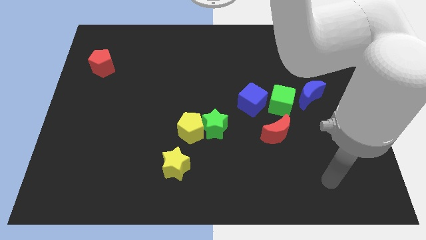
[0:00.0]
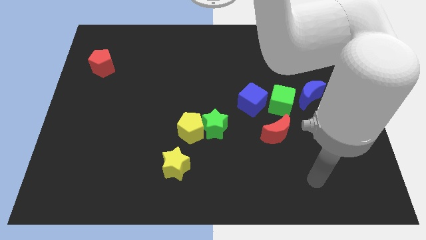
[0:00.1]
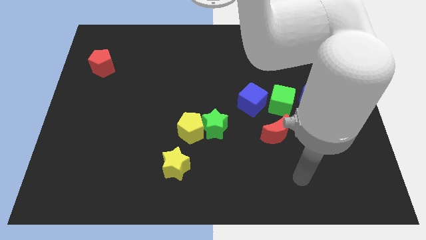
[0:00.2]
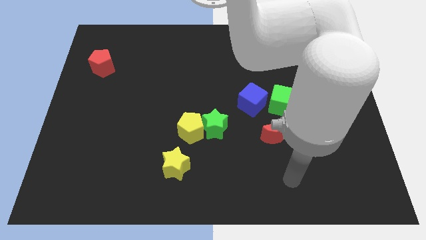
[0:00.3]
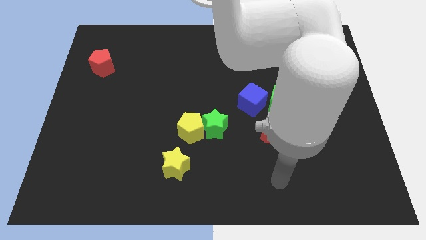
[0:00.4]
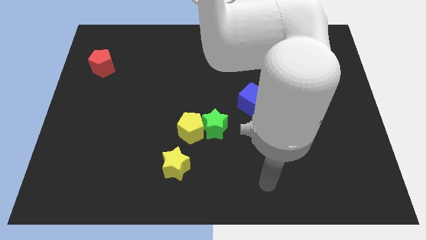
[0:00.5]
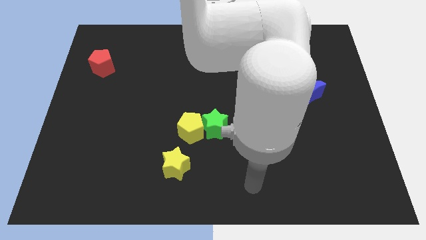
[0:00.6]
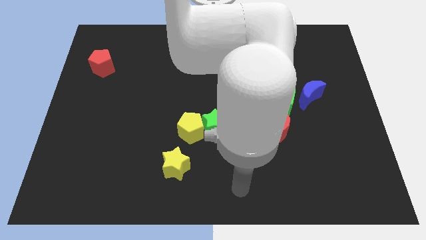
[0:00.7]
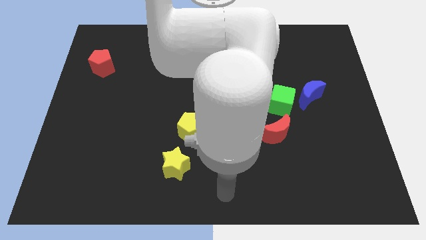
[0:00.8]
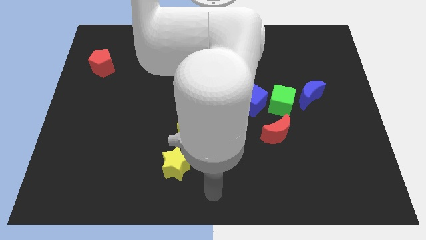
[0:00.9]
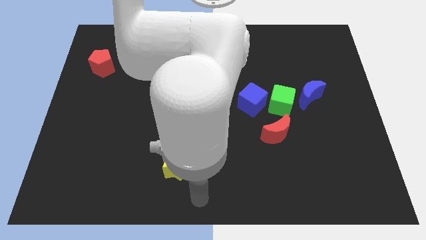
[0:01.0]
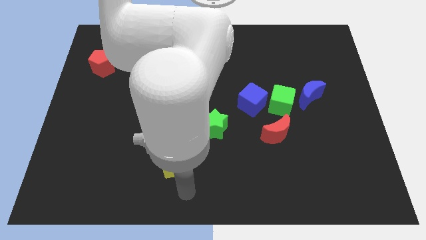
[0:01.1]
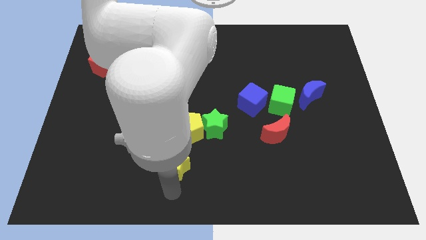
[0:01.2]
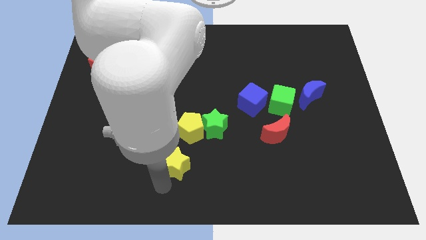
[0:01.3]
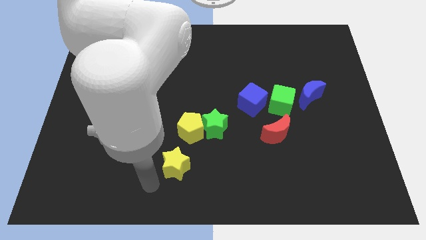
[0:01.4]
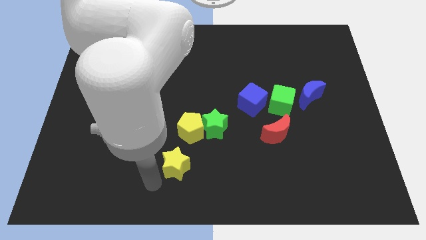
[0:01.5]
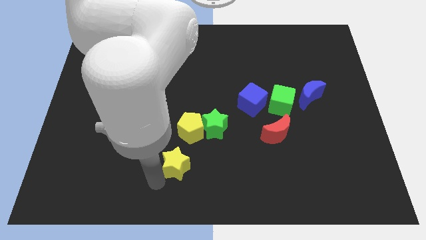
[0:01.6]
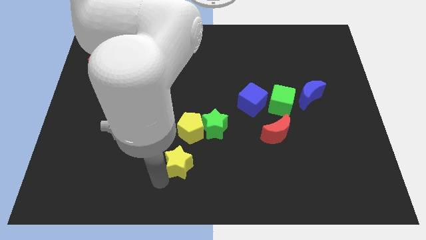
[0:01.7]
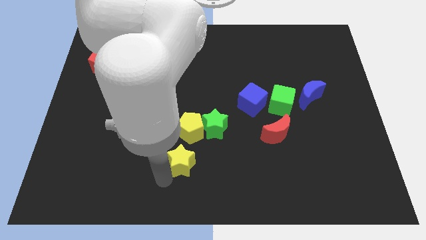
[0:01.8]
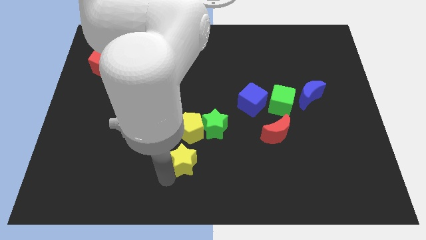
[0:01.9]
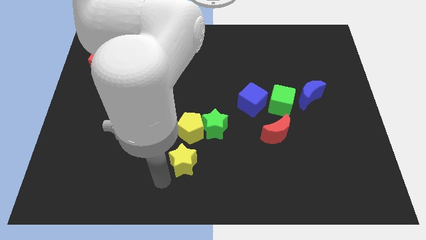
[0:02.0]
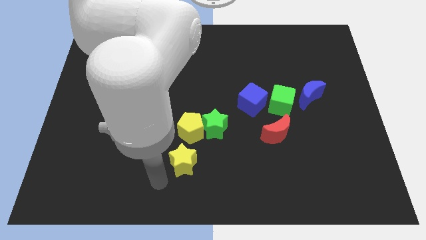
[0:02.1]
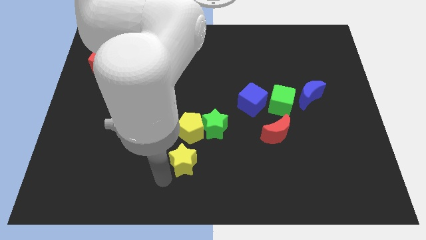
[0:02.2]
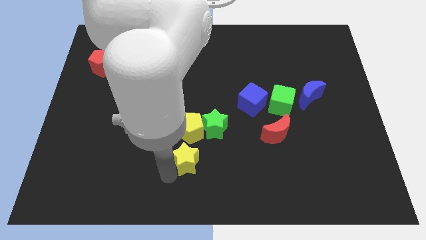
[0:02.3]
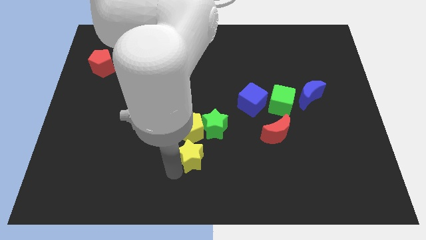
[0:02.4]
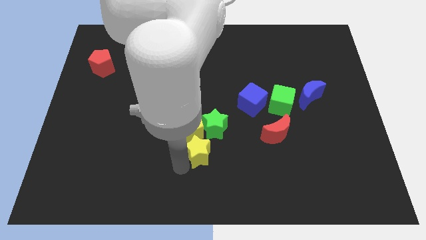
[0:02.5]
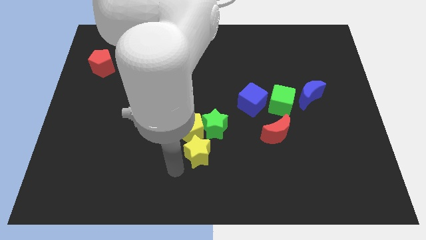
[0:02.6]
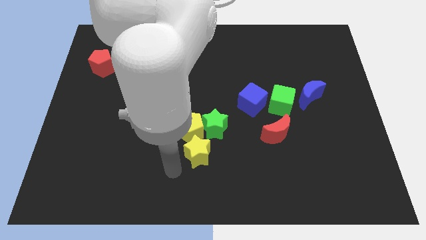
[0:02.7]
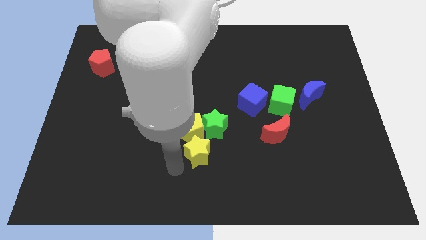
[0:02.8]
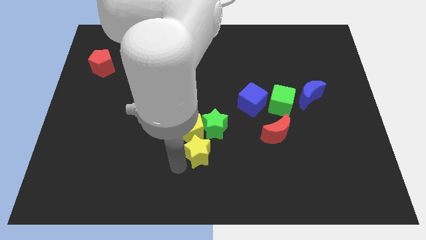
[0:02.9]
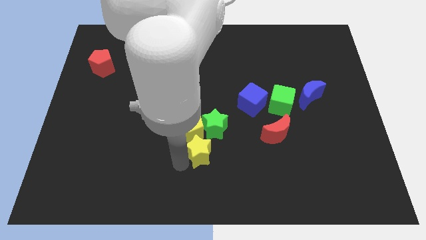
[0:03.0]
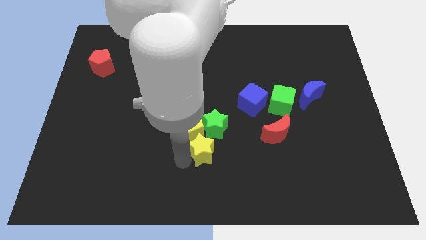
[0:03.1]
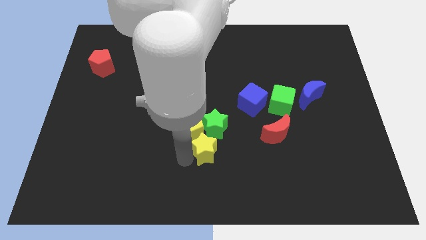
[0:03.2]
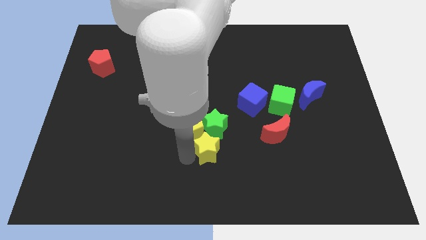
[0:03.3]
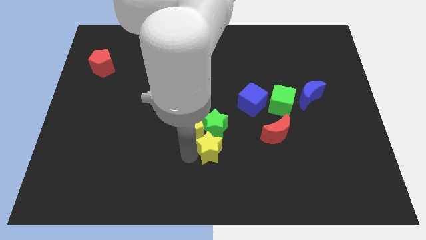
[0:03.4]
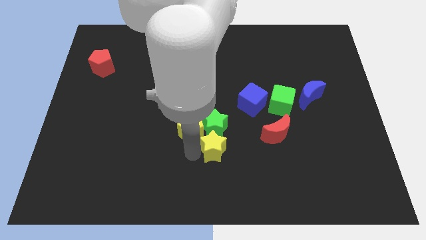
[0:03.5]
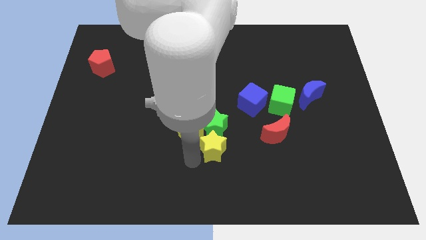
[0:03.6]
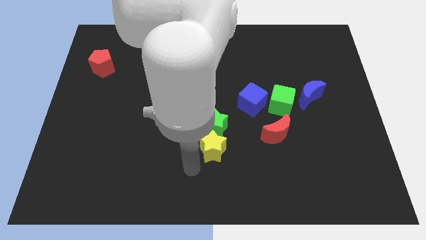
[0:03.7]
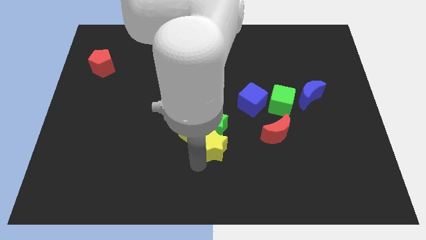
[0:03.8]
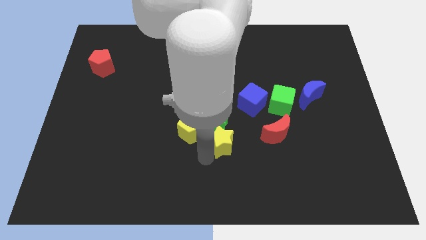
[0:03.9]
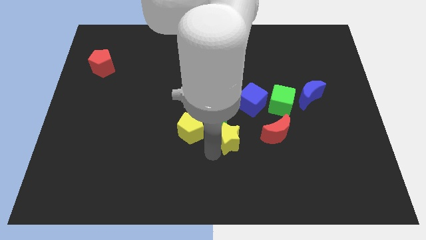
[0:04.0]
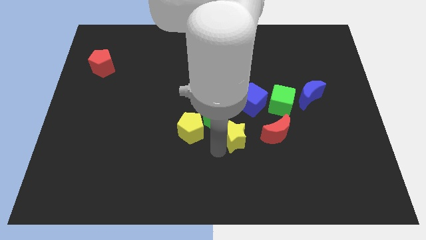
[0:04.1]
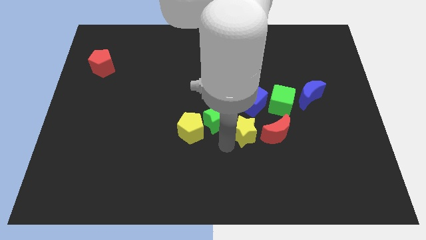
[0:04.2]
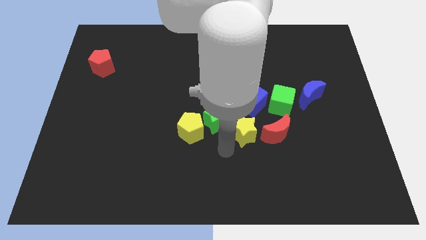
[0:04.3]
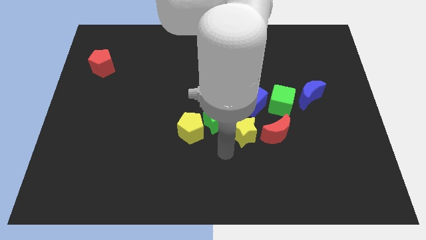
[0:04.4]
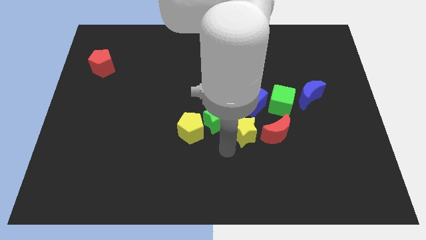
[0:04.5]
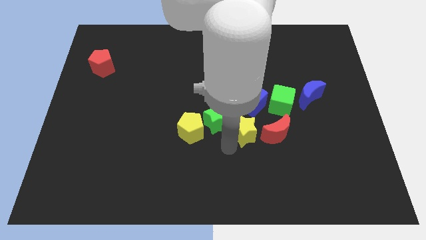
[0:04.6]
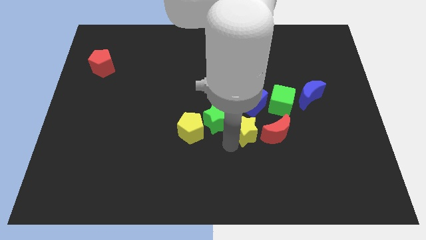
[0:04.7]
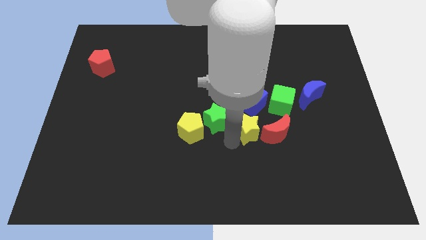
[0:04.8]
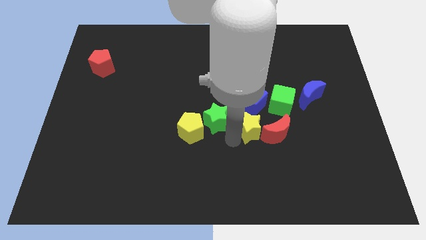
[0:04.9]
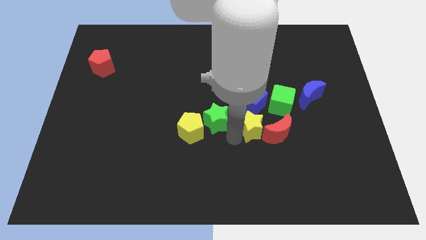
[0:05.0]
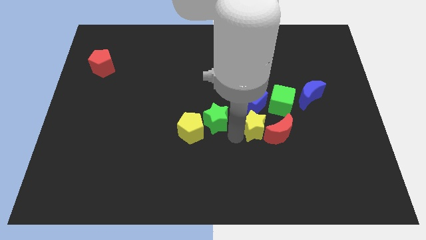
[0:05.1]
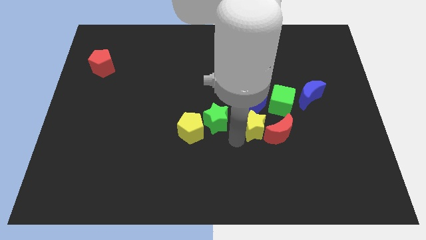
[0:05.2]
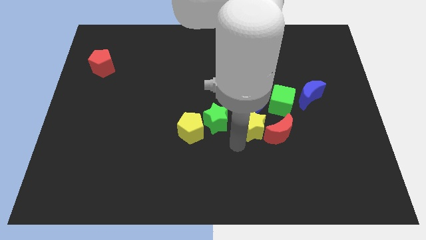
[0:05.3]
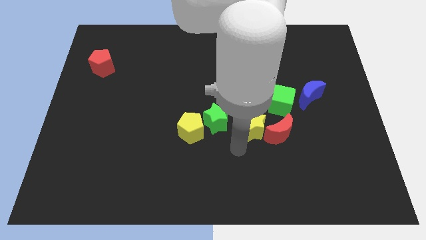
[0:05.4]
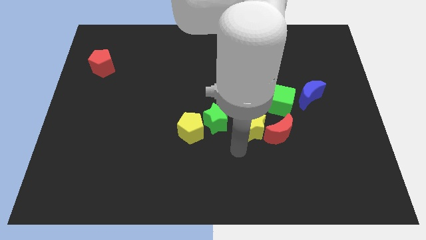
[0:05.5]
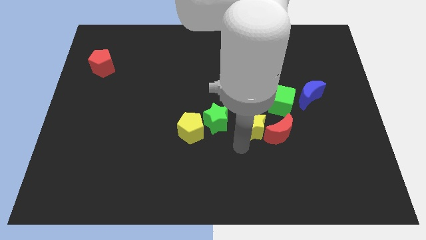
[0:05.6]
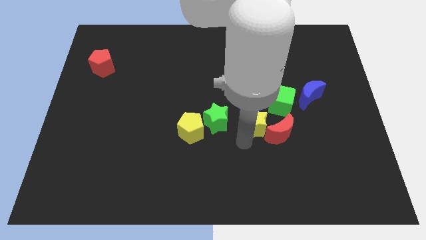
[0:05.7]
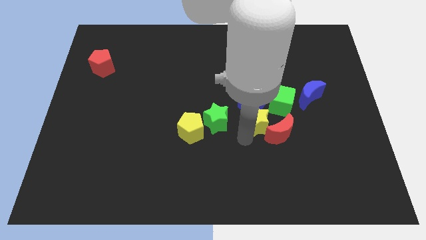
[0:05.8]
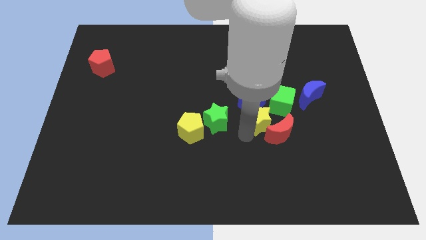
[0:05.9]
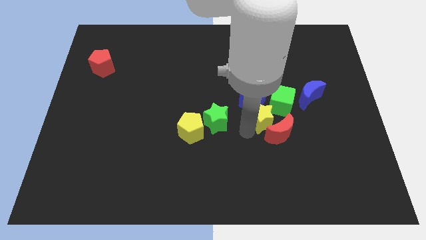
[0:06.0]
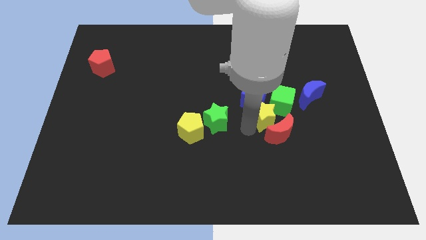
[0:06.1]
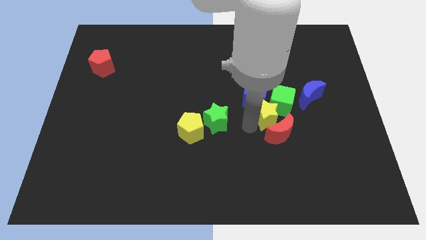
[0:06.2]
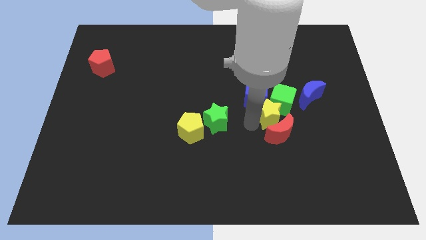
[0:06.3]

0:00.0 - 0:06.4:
put the yellow star to the bottom left side of the blue moon

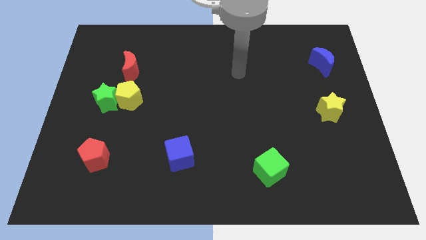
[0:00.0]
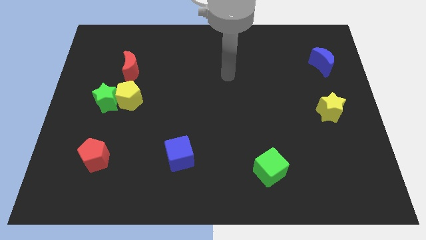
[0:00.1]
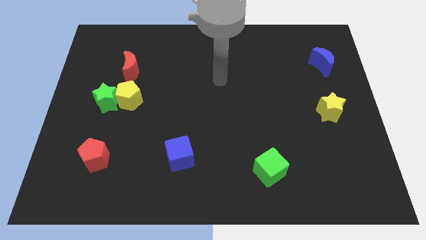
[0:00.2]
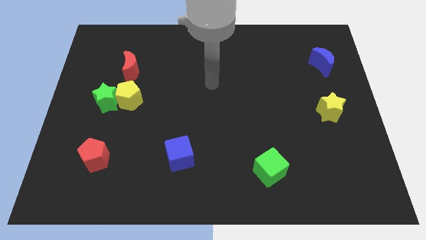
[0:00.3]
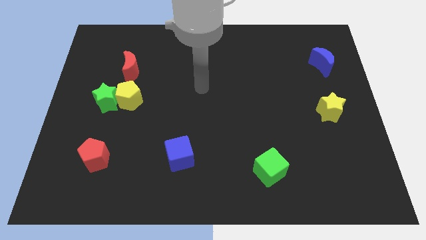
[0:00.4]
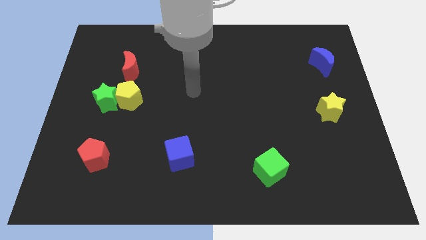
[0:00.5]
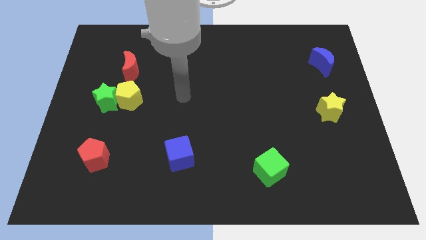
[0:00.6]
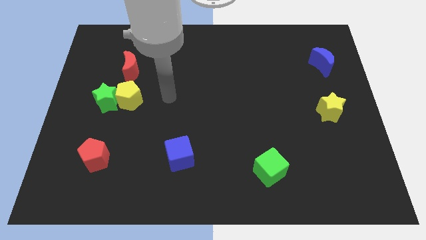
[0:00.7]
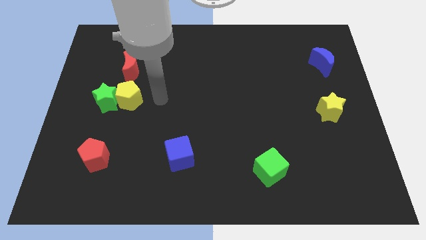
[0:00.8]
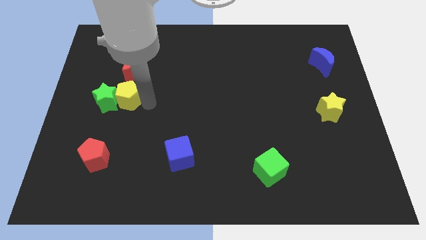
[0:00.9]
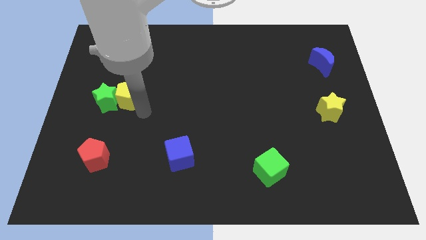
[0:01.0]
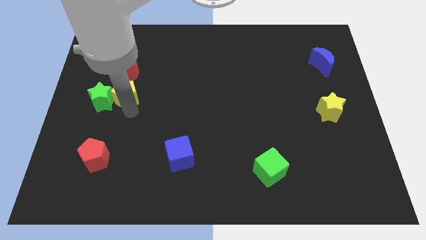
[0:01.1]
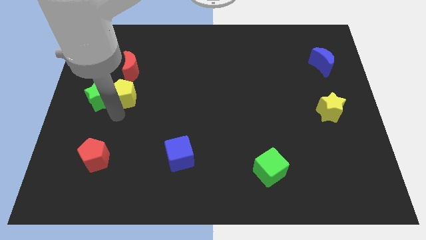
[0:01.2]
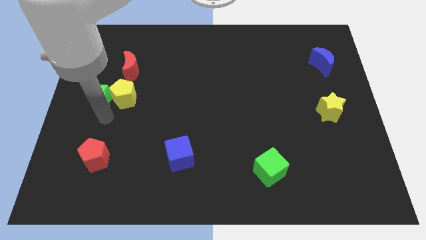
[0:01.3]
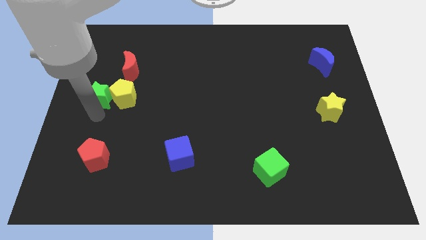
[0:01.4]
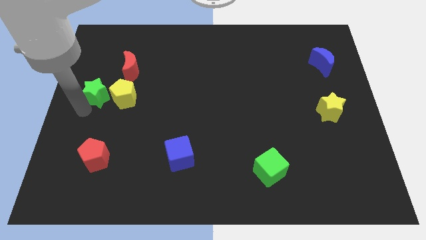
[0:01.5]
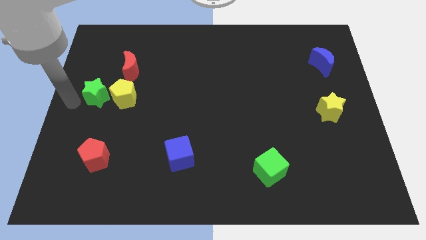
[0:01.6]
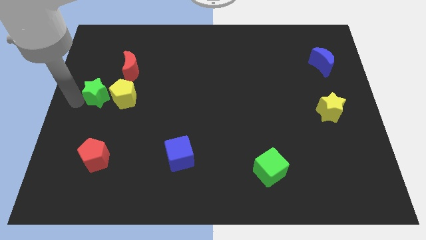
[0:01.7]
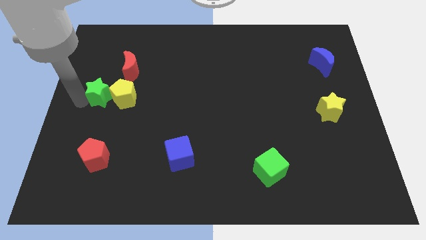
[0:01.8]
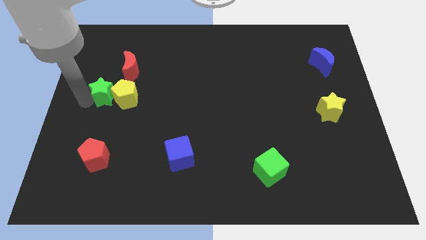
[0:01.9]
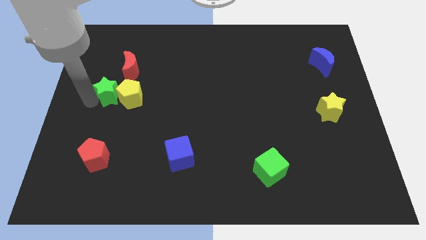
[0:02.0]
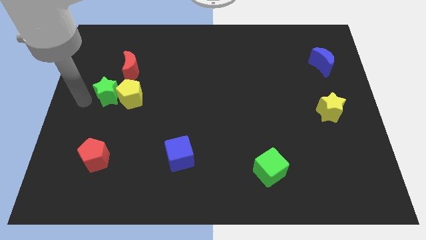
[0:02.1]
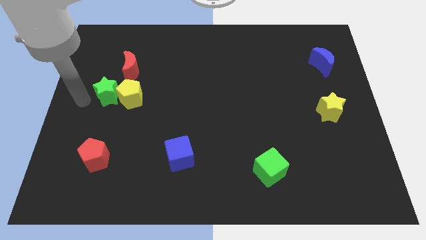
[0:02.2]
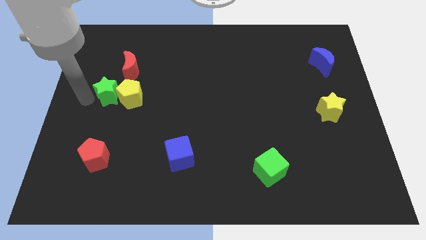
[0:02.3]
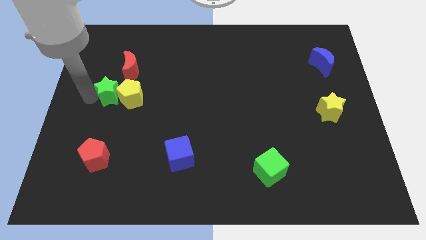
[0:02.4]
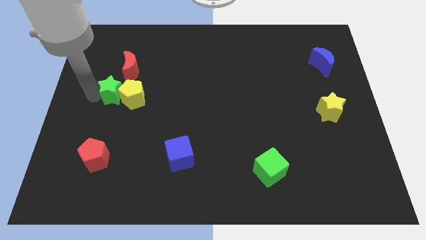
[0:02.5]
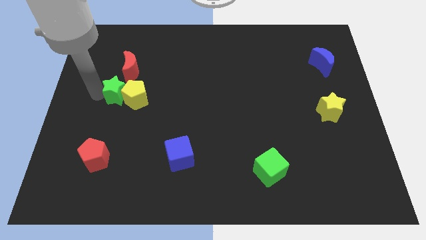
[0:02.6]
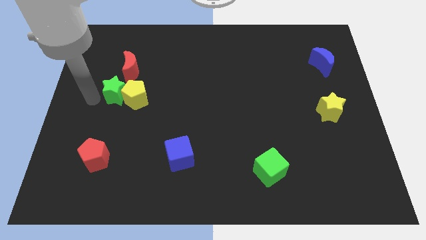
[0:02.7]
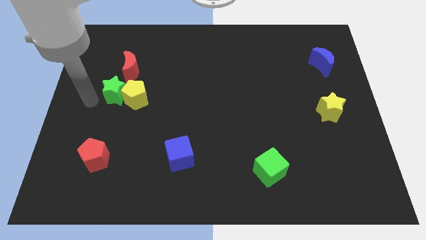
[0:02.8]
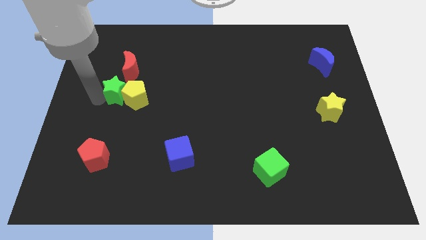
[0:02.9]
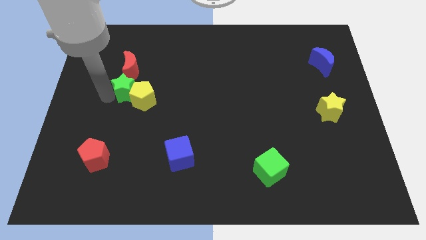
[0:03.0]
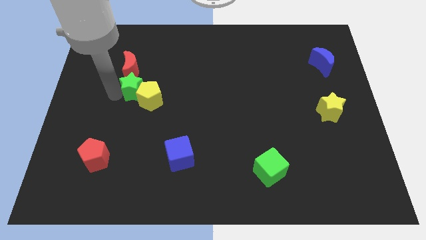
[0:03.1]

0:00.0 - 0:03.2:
push the green star diagonally down and to the right of the red moon
